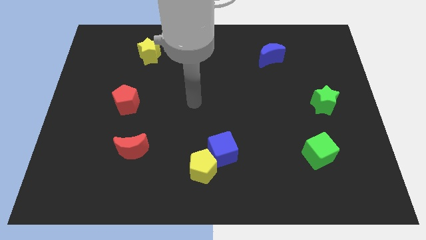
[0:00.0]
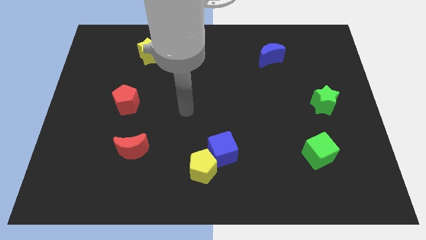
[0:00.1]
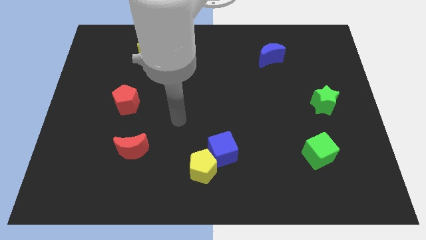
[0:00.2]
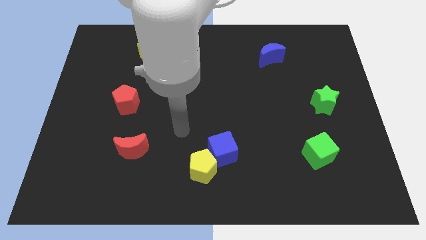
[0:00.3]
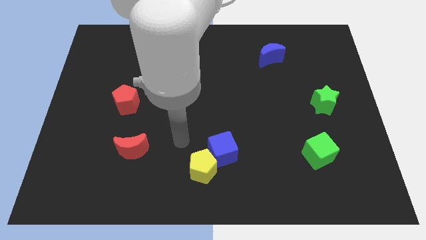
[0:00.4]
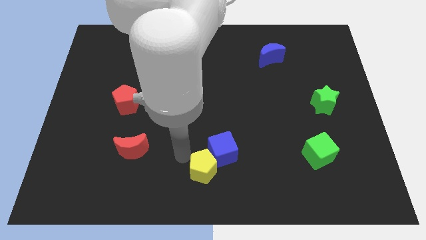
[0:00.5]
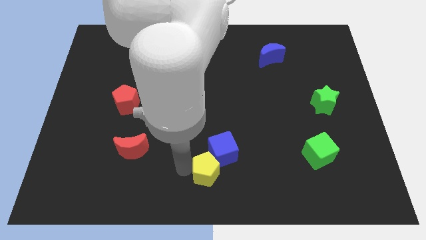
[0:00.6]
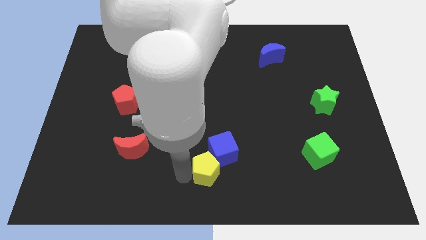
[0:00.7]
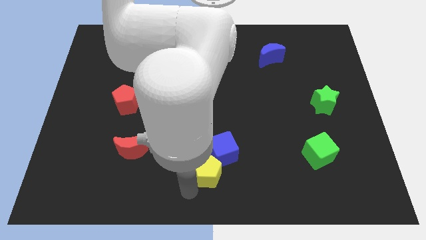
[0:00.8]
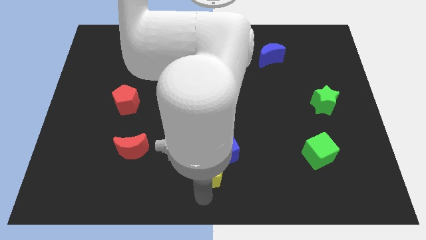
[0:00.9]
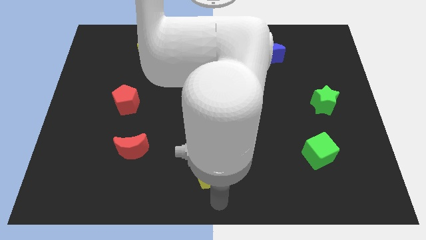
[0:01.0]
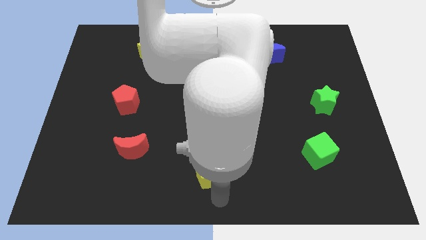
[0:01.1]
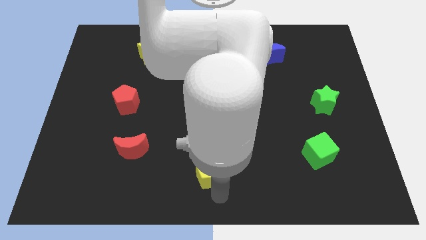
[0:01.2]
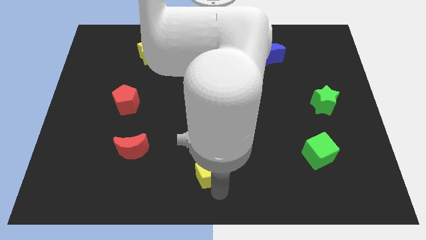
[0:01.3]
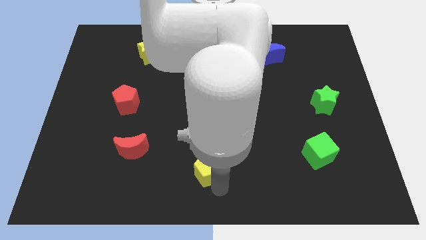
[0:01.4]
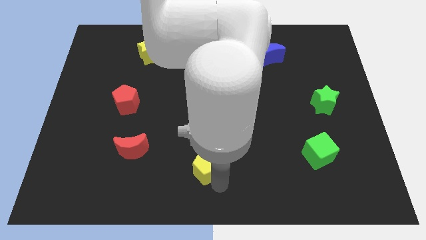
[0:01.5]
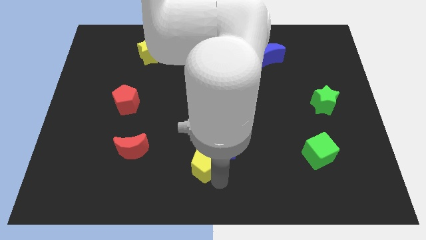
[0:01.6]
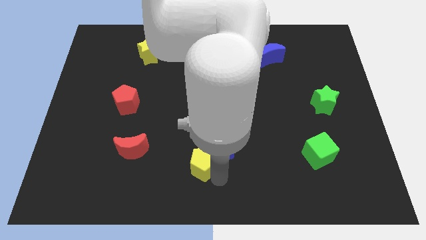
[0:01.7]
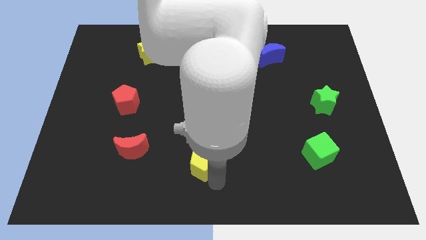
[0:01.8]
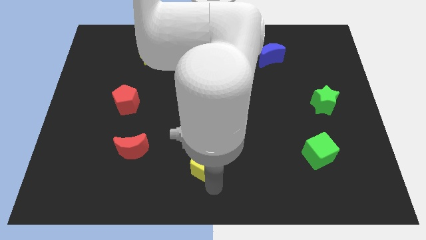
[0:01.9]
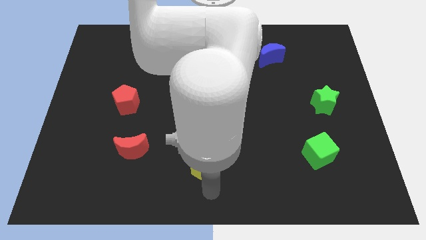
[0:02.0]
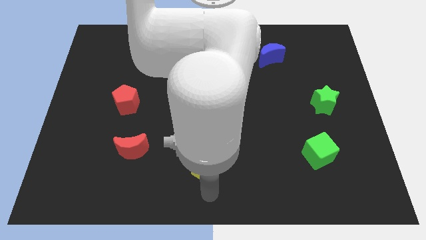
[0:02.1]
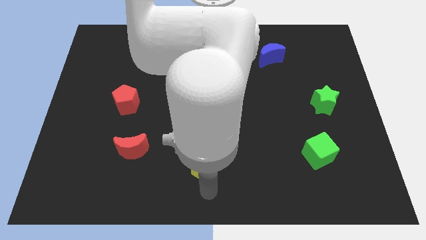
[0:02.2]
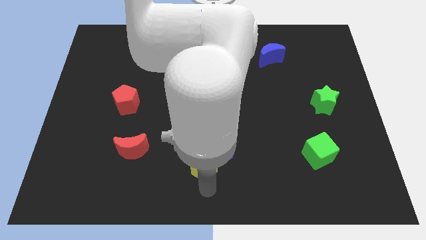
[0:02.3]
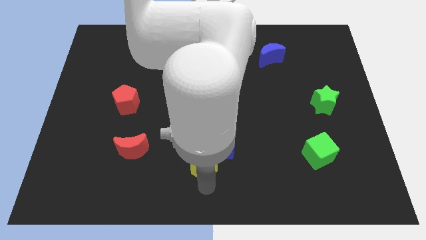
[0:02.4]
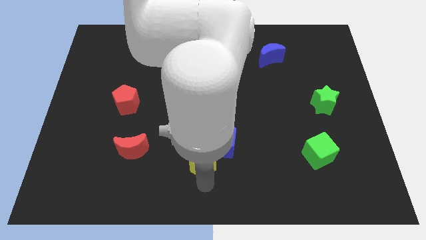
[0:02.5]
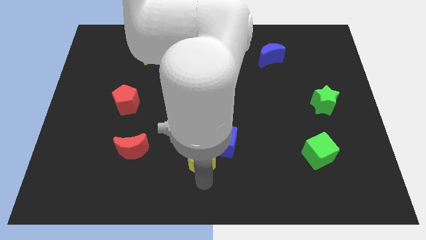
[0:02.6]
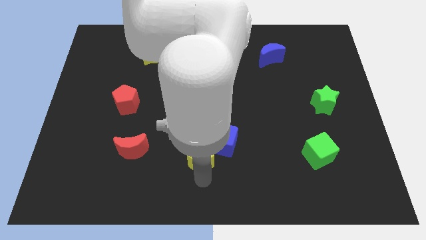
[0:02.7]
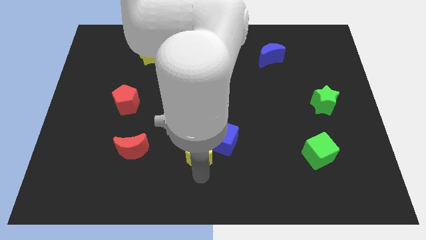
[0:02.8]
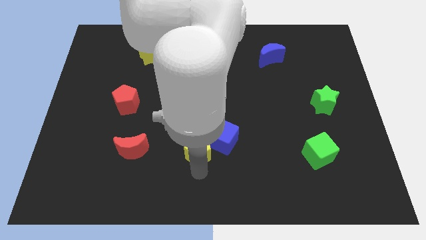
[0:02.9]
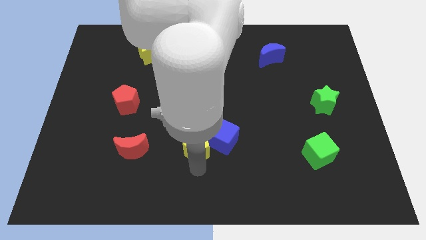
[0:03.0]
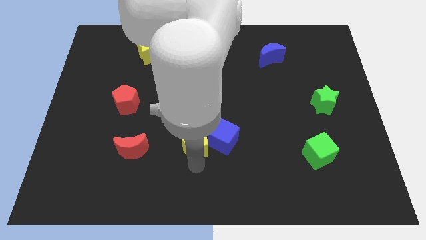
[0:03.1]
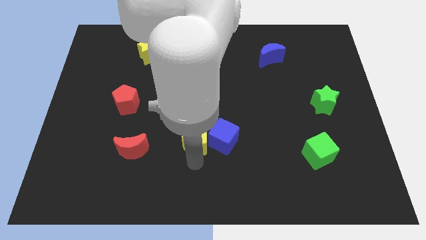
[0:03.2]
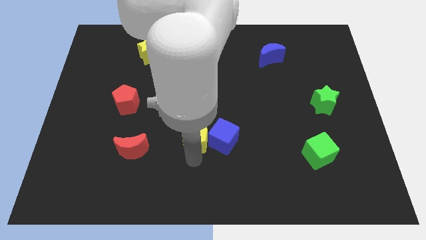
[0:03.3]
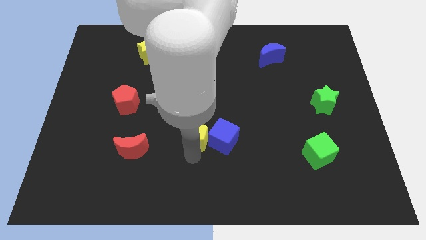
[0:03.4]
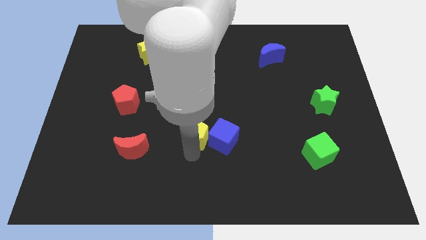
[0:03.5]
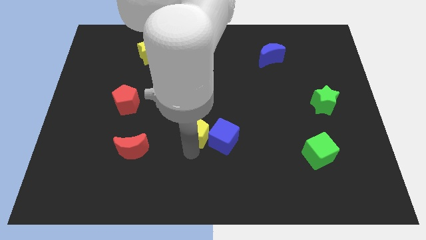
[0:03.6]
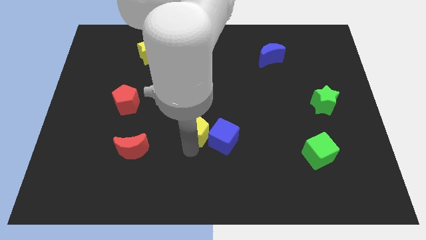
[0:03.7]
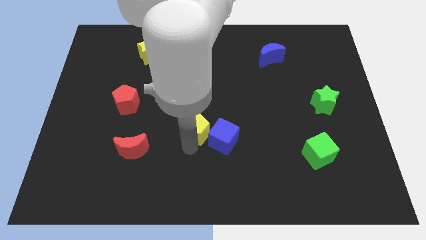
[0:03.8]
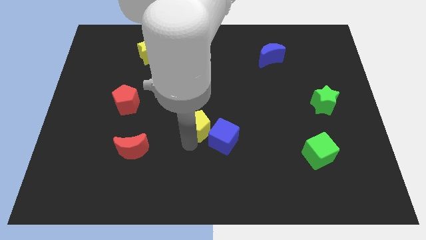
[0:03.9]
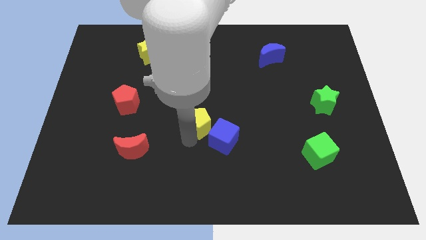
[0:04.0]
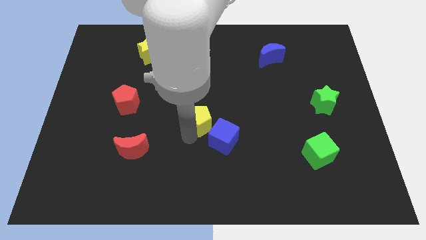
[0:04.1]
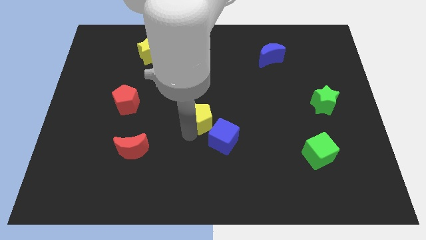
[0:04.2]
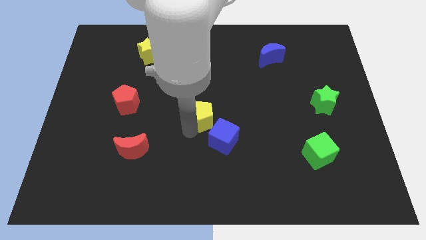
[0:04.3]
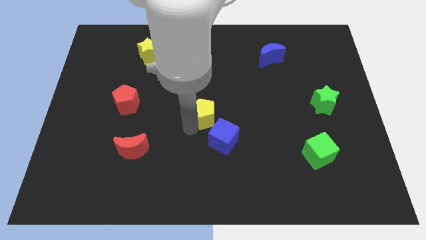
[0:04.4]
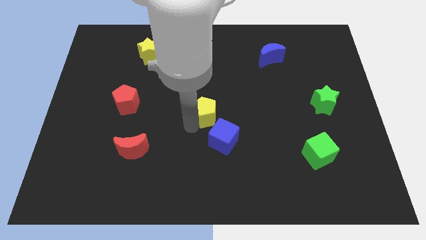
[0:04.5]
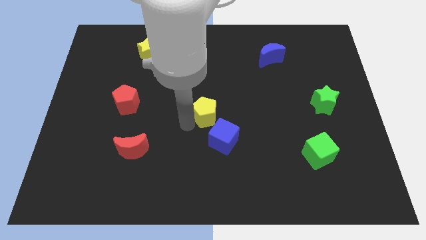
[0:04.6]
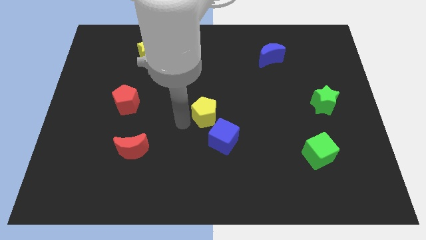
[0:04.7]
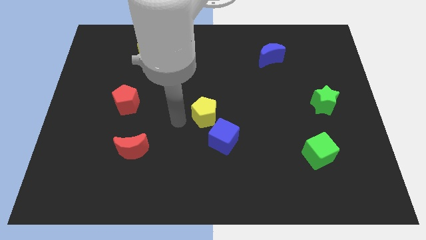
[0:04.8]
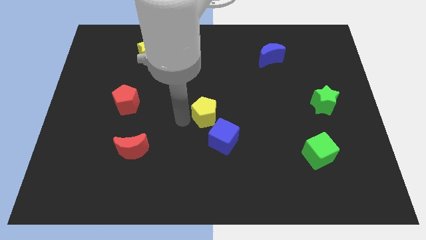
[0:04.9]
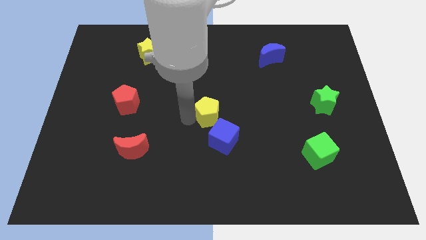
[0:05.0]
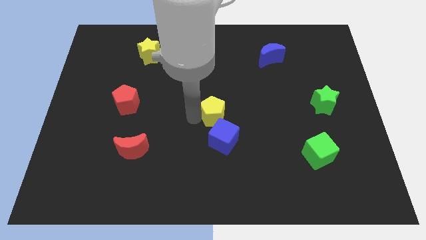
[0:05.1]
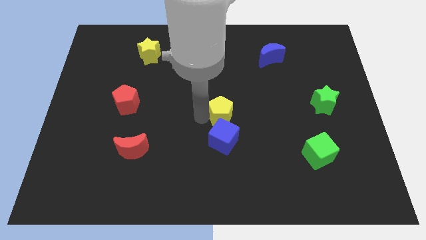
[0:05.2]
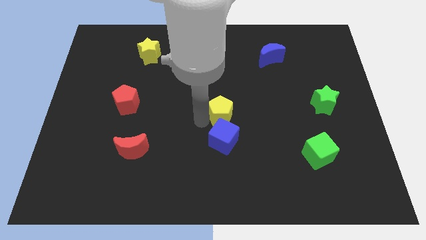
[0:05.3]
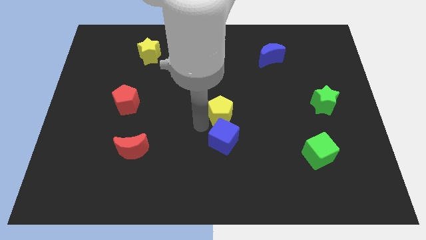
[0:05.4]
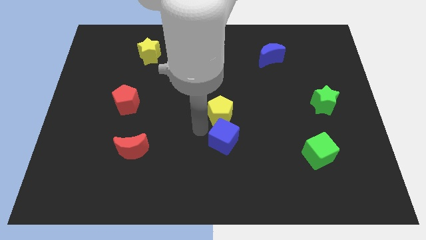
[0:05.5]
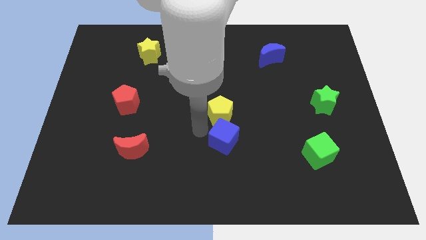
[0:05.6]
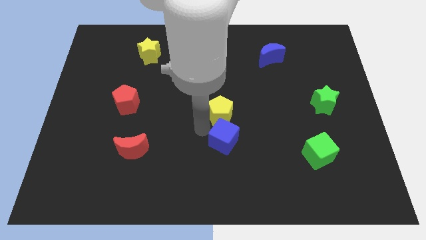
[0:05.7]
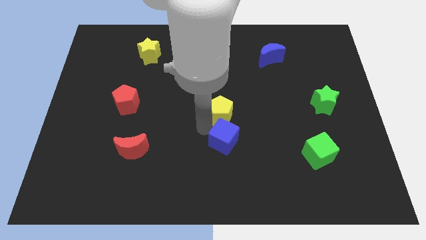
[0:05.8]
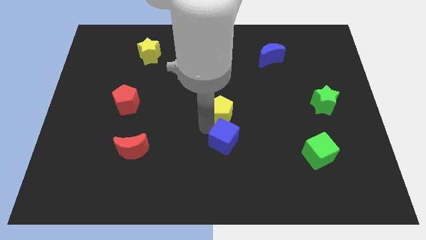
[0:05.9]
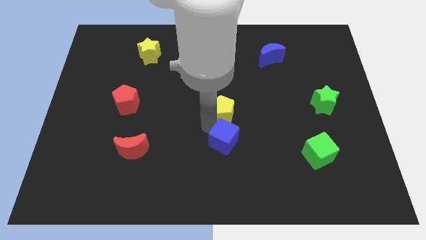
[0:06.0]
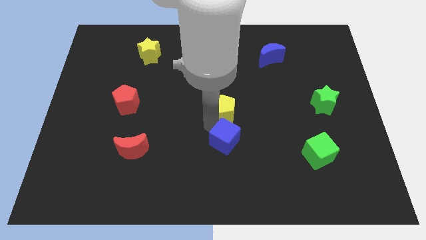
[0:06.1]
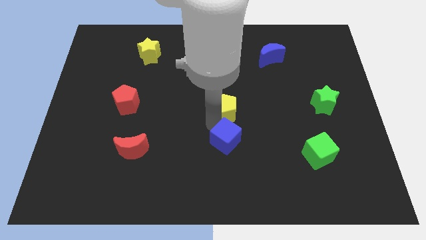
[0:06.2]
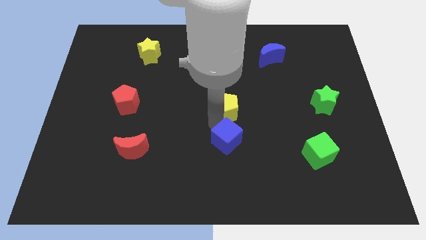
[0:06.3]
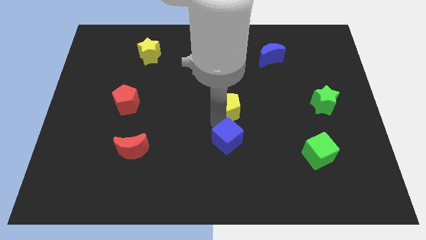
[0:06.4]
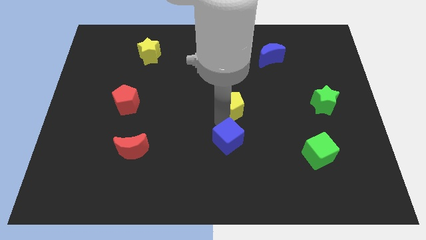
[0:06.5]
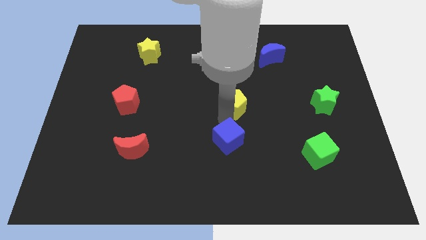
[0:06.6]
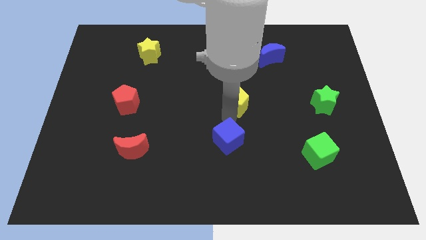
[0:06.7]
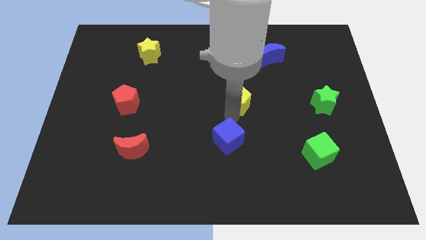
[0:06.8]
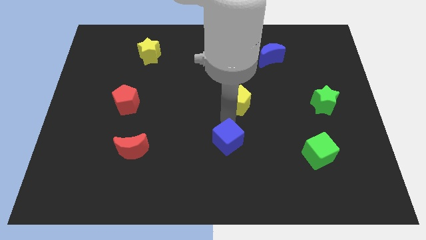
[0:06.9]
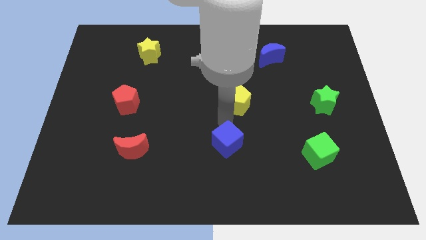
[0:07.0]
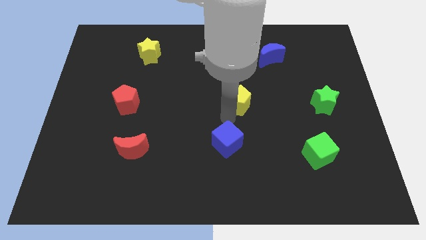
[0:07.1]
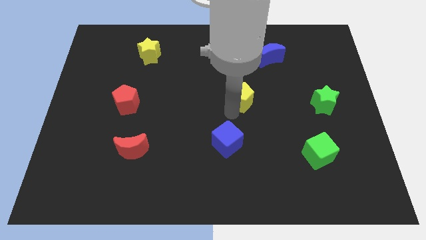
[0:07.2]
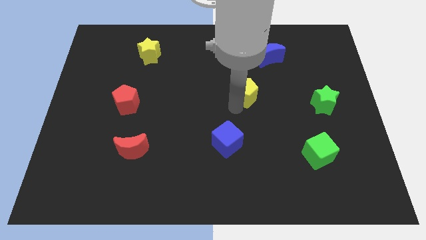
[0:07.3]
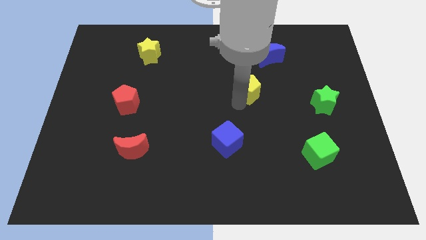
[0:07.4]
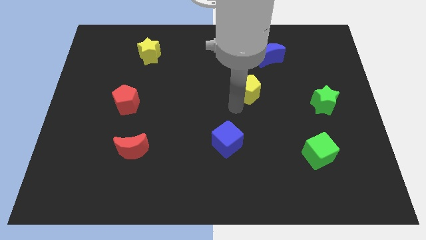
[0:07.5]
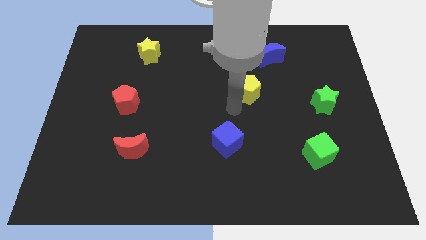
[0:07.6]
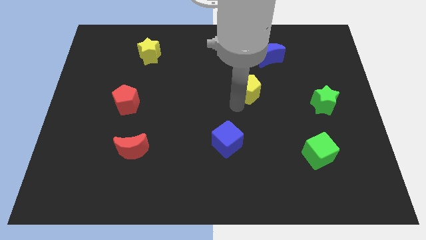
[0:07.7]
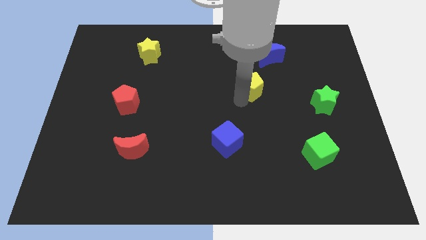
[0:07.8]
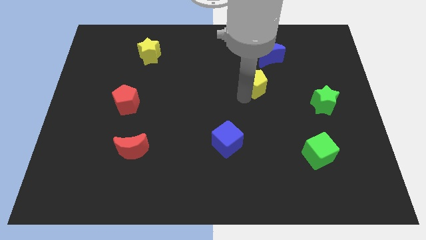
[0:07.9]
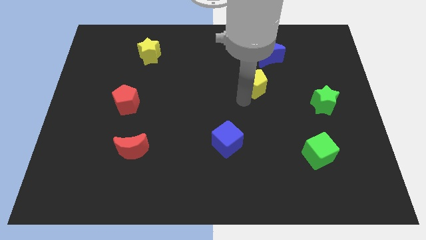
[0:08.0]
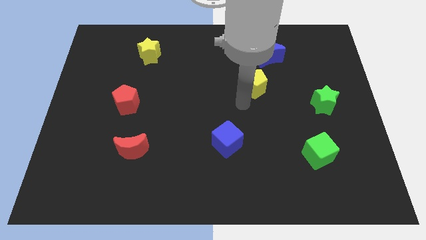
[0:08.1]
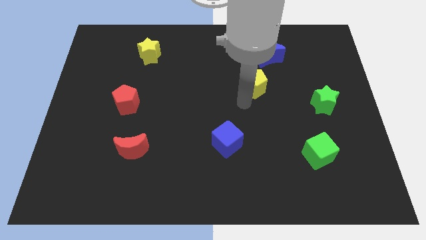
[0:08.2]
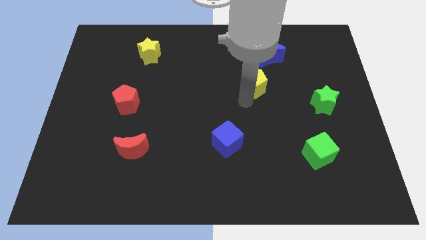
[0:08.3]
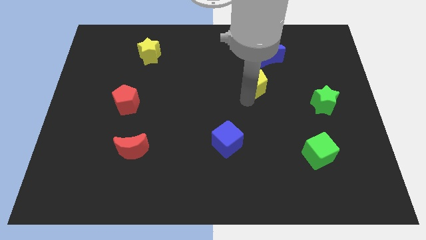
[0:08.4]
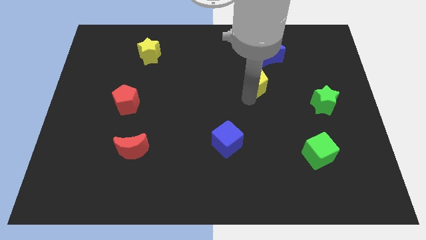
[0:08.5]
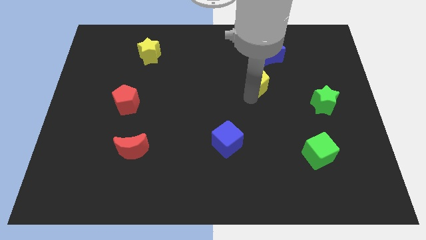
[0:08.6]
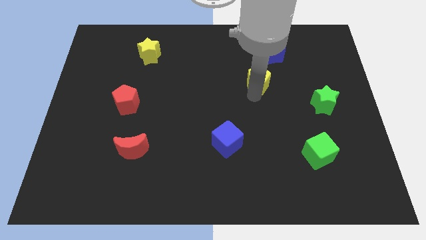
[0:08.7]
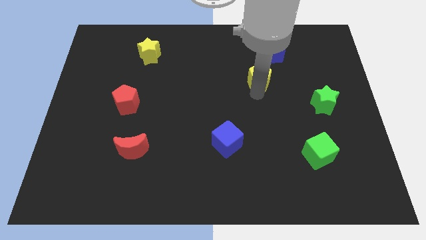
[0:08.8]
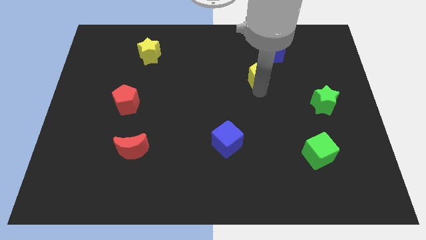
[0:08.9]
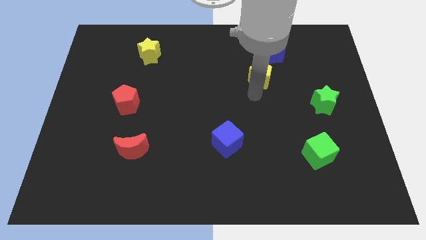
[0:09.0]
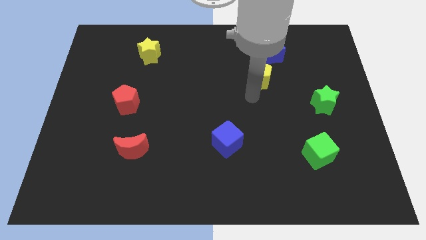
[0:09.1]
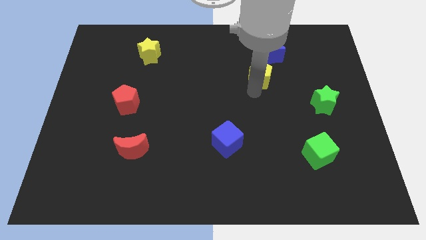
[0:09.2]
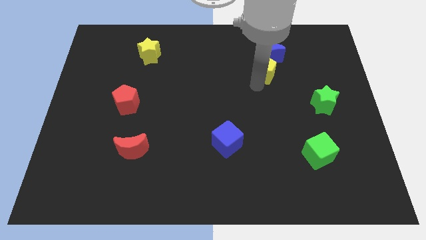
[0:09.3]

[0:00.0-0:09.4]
slide the yellow pentagon towards the blue moon
